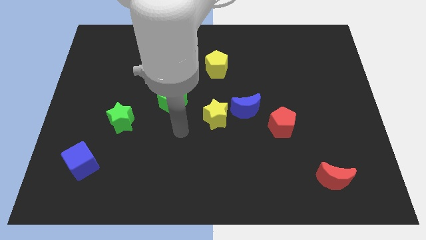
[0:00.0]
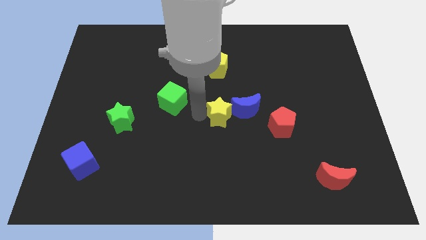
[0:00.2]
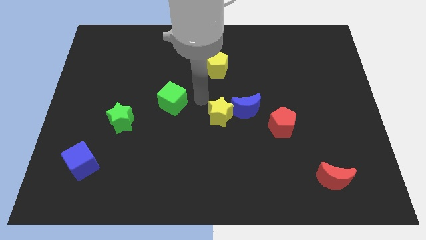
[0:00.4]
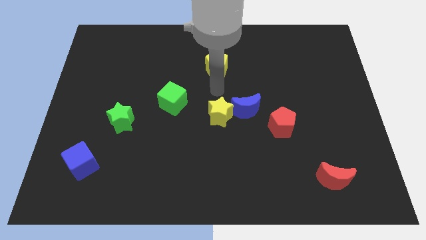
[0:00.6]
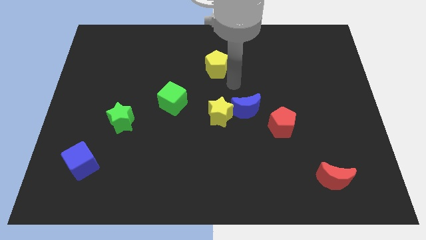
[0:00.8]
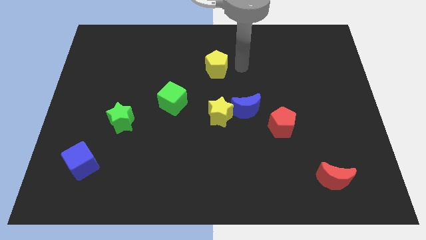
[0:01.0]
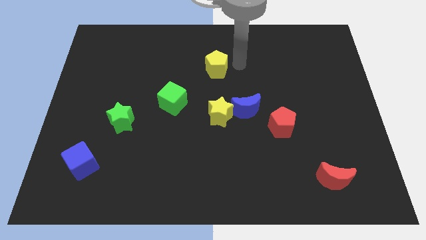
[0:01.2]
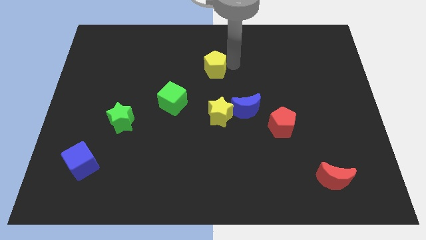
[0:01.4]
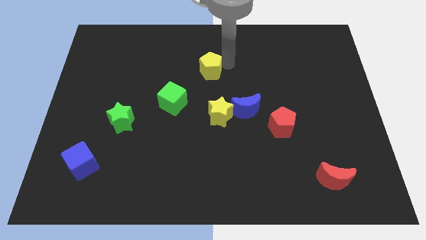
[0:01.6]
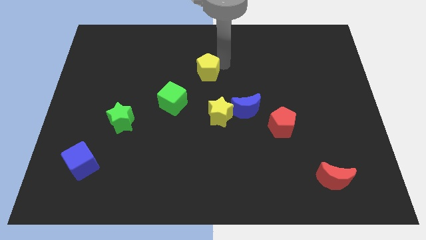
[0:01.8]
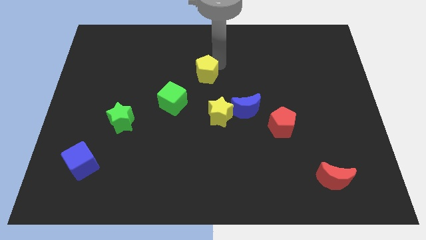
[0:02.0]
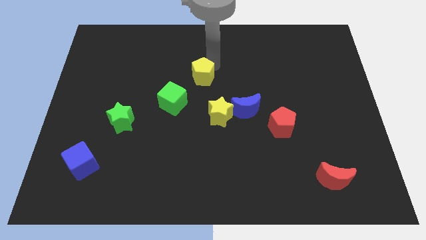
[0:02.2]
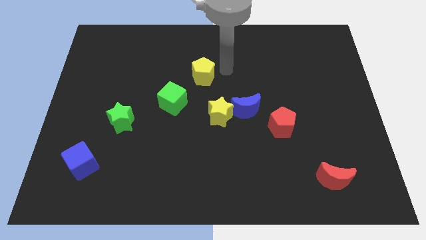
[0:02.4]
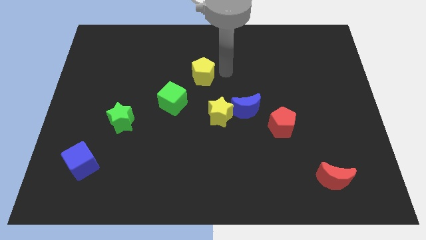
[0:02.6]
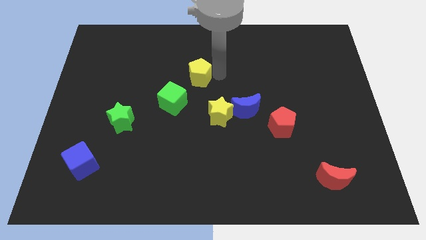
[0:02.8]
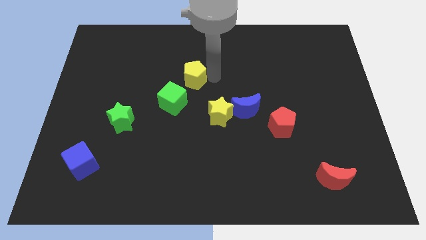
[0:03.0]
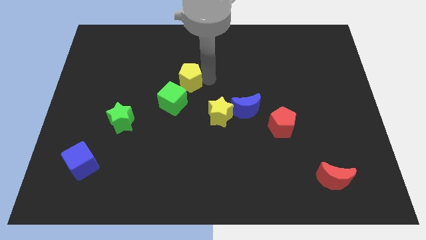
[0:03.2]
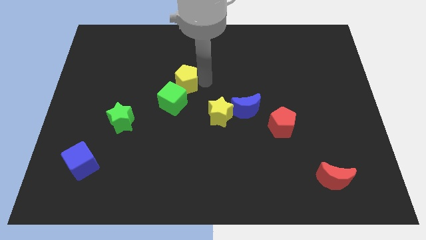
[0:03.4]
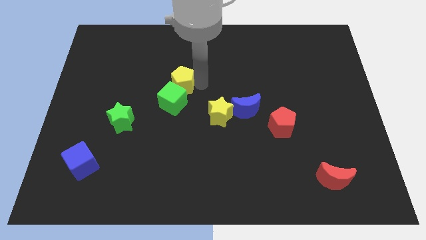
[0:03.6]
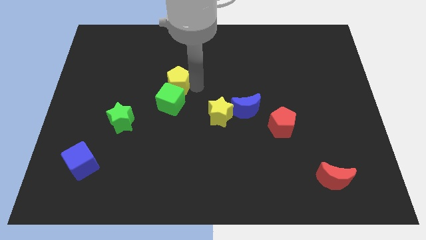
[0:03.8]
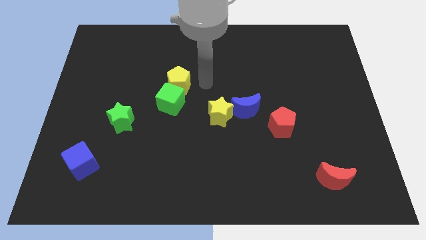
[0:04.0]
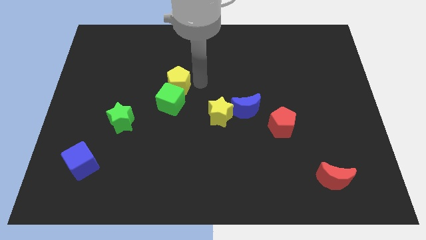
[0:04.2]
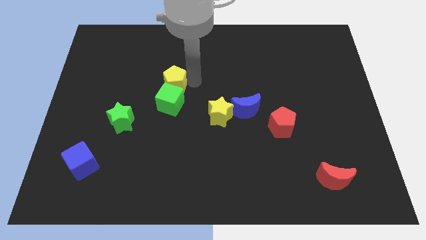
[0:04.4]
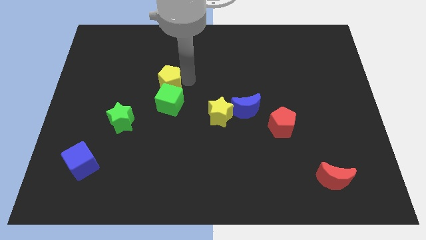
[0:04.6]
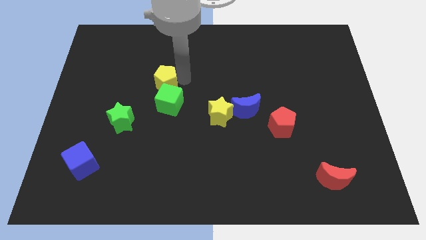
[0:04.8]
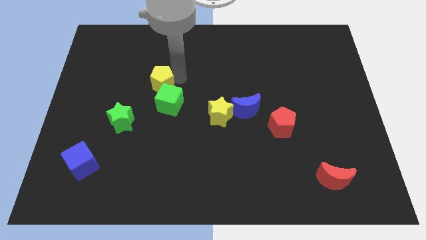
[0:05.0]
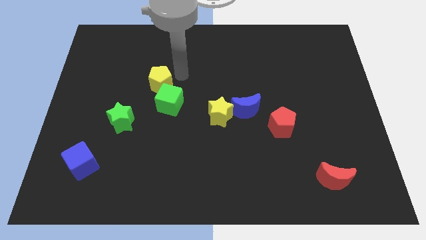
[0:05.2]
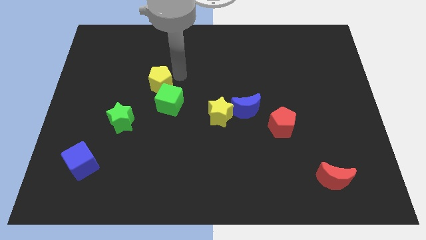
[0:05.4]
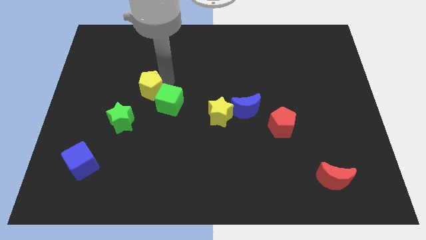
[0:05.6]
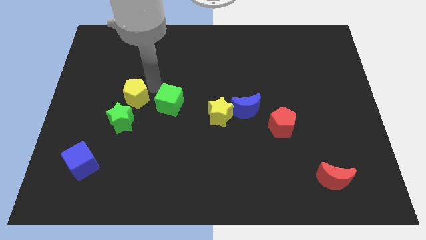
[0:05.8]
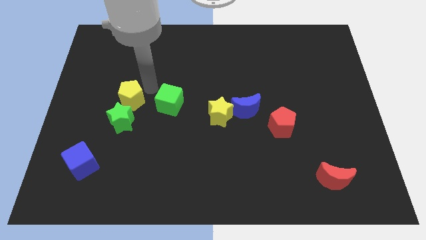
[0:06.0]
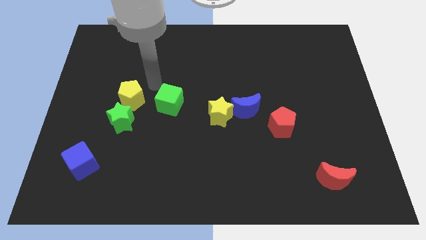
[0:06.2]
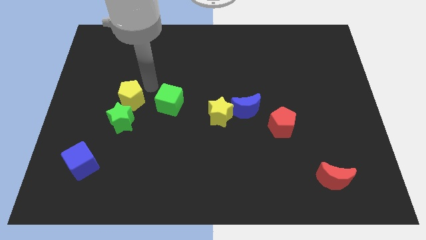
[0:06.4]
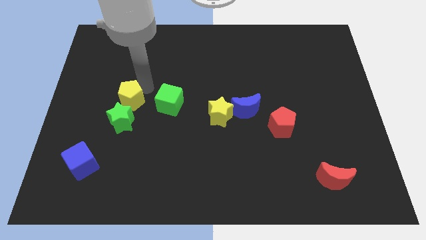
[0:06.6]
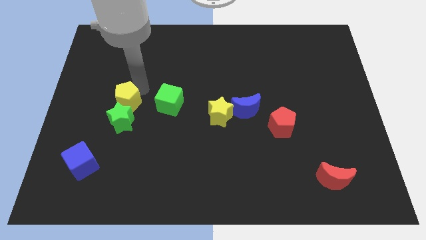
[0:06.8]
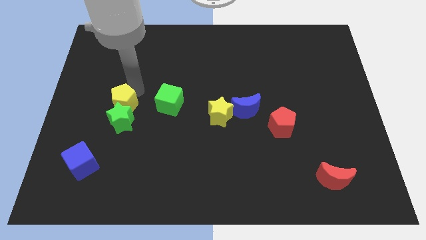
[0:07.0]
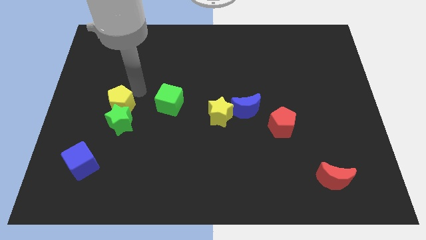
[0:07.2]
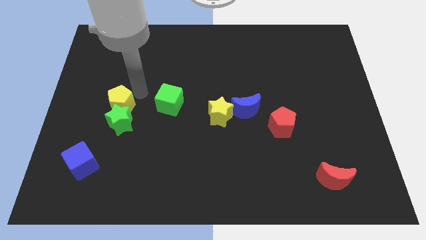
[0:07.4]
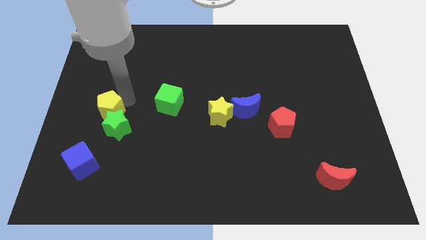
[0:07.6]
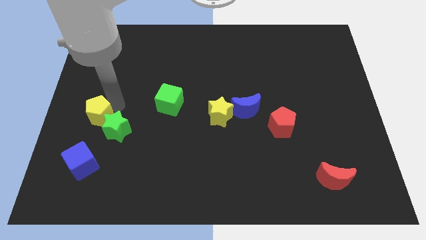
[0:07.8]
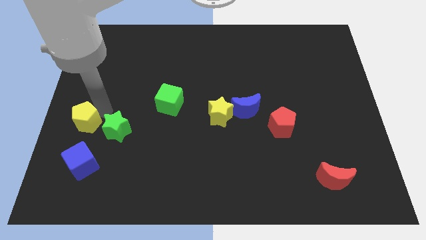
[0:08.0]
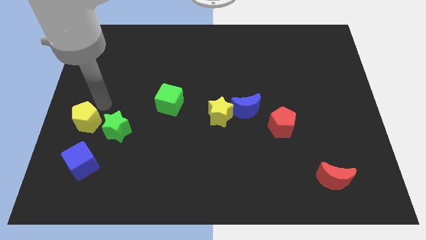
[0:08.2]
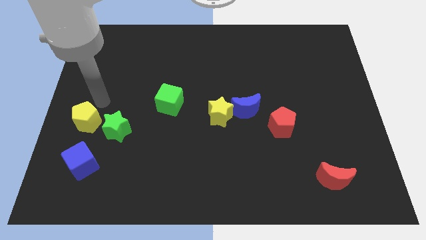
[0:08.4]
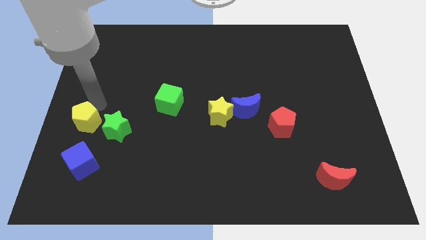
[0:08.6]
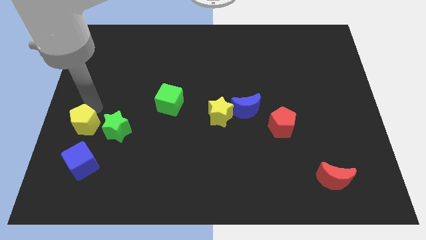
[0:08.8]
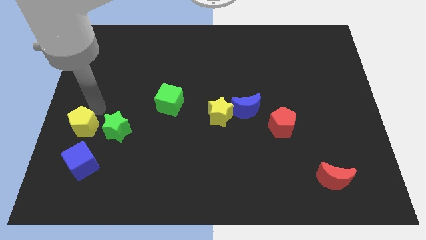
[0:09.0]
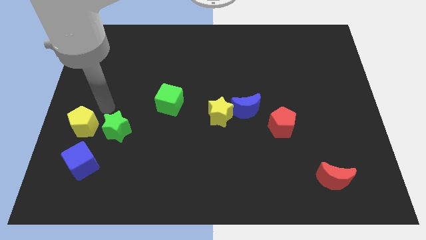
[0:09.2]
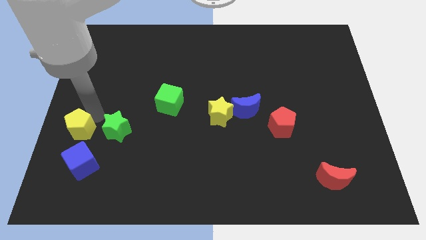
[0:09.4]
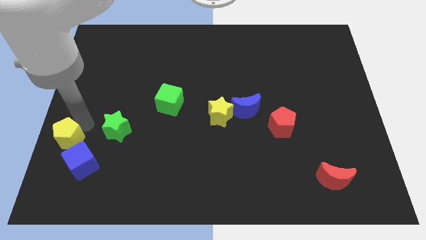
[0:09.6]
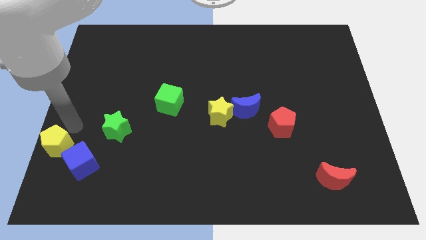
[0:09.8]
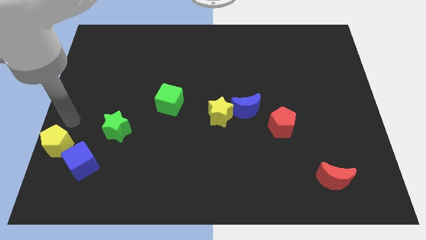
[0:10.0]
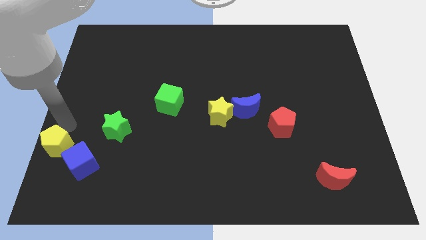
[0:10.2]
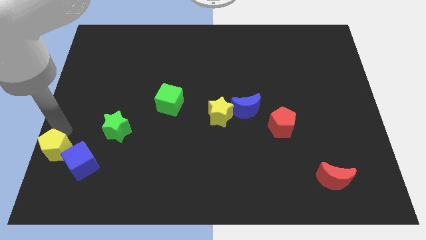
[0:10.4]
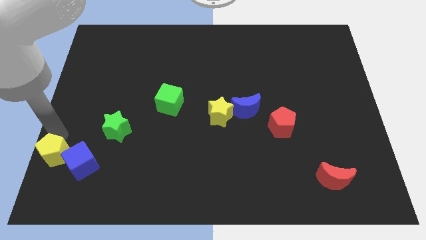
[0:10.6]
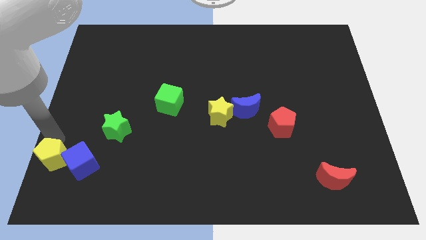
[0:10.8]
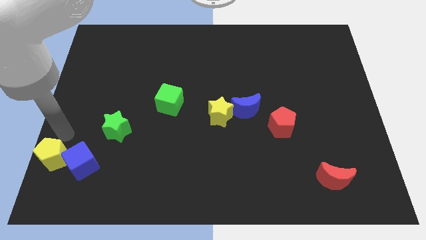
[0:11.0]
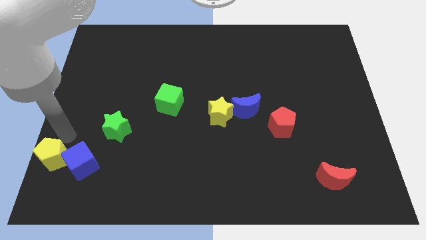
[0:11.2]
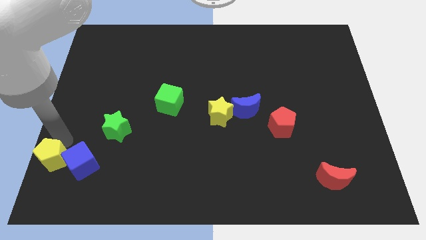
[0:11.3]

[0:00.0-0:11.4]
push the yellow pentagon to the bottom left corner

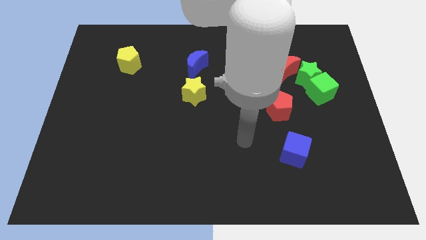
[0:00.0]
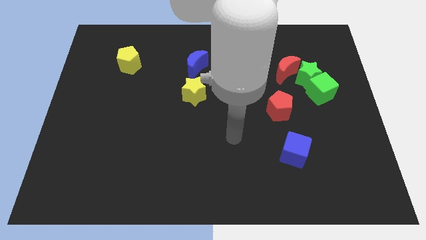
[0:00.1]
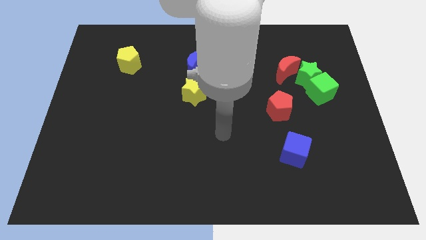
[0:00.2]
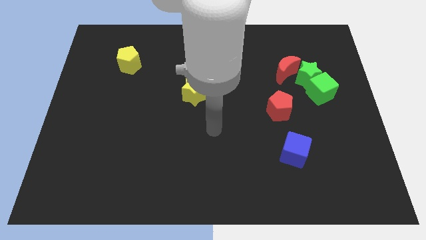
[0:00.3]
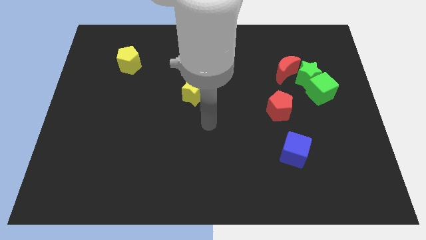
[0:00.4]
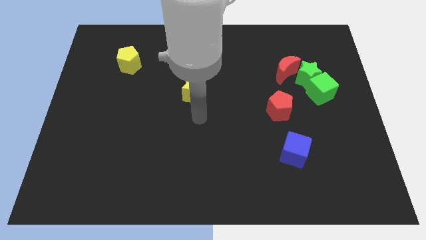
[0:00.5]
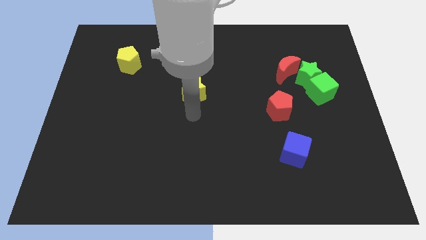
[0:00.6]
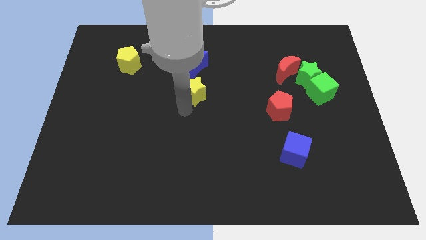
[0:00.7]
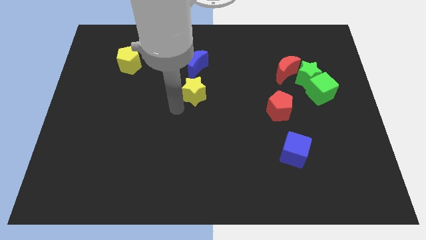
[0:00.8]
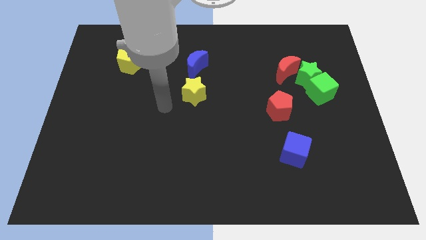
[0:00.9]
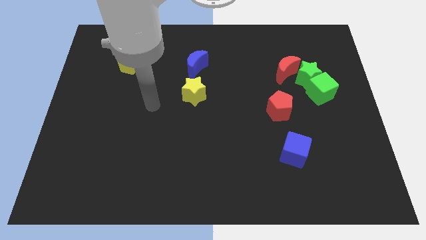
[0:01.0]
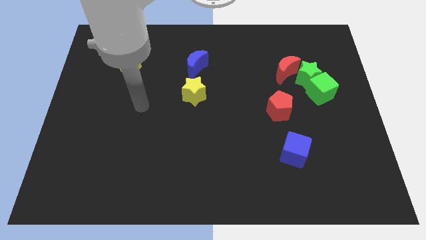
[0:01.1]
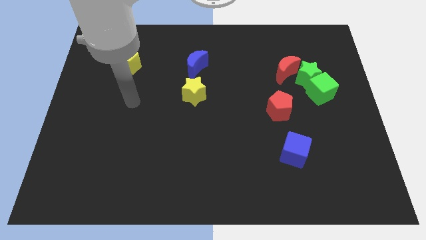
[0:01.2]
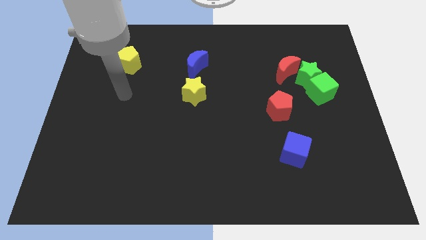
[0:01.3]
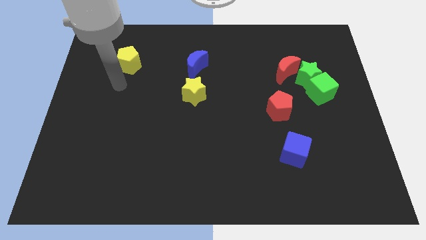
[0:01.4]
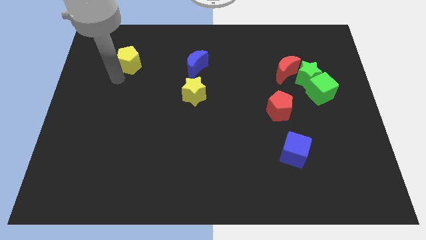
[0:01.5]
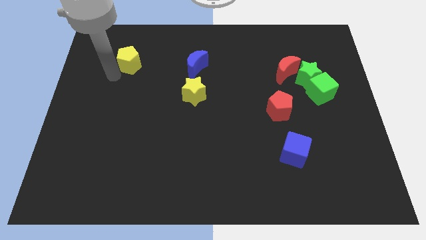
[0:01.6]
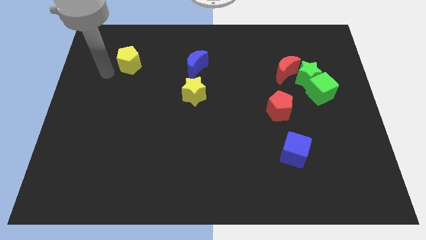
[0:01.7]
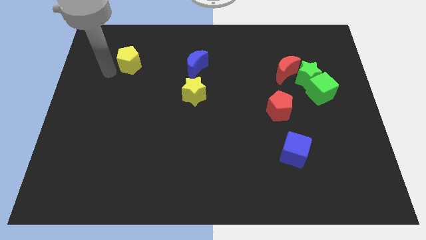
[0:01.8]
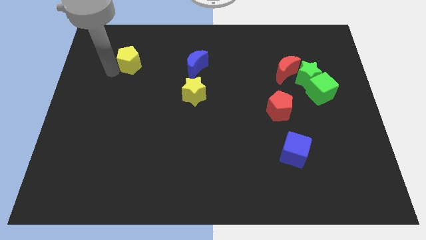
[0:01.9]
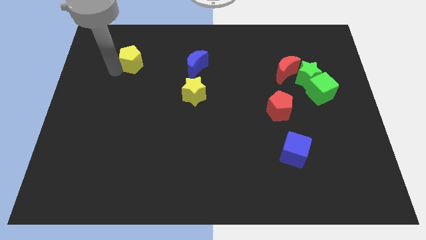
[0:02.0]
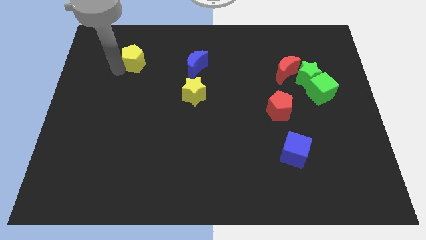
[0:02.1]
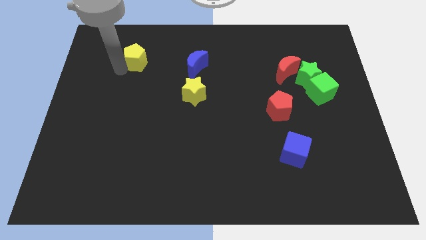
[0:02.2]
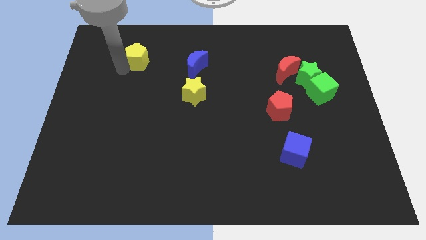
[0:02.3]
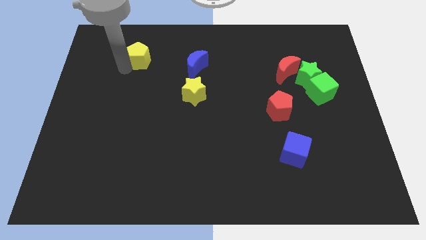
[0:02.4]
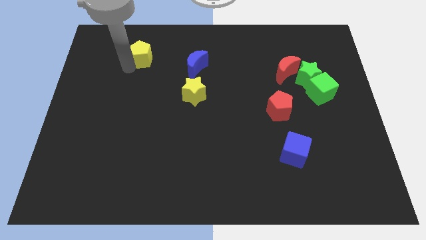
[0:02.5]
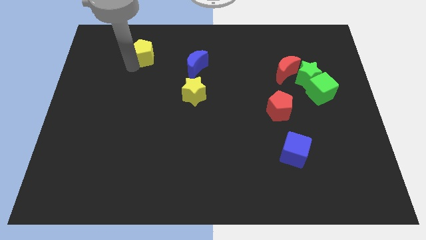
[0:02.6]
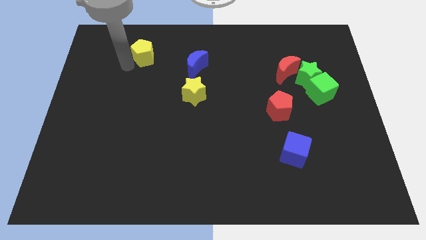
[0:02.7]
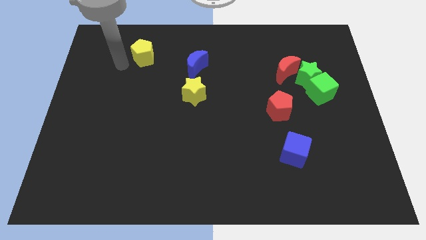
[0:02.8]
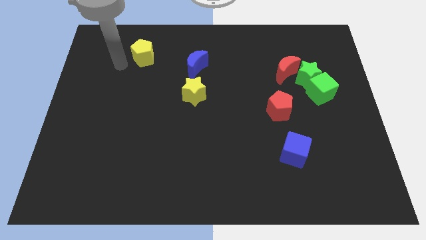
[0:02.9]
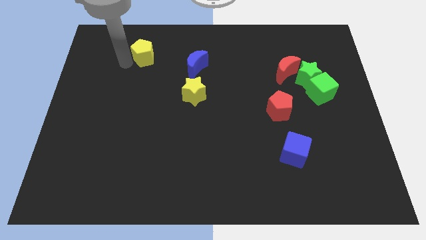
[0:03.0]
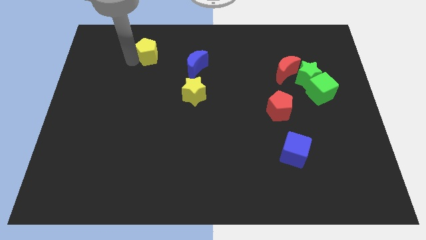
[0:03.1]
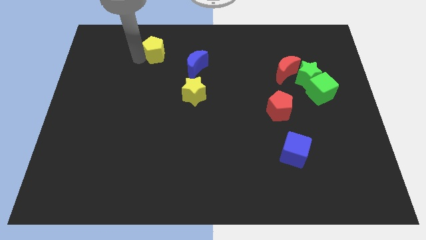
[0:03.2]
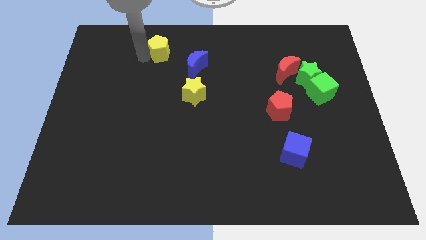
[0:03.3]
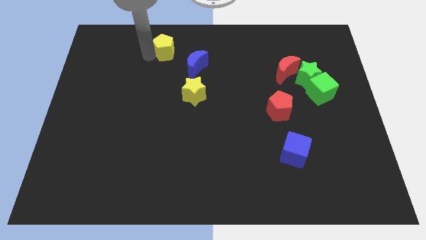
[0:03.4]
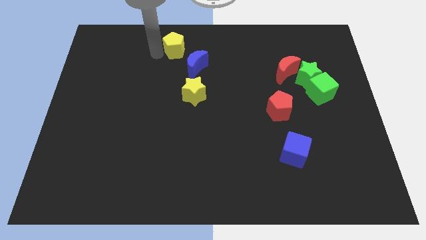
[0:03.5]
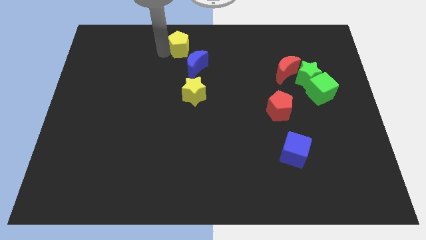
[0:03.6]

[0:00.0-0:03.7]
slide the yellow pentagon to the top
